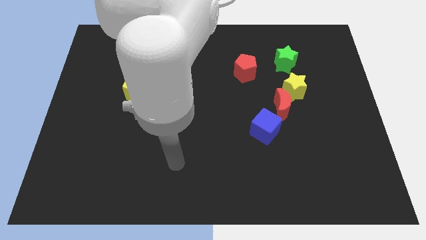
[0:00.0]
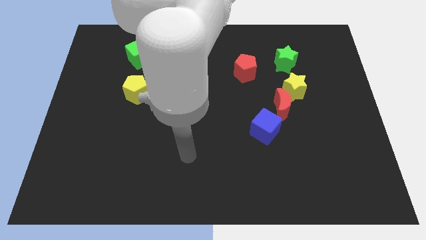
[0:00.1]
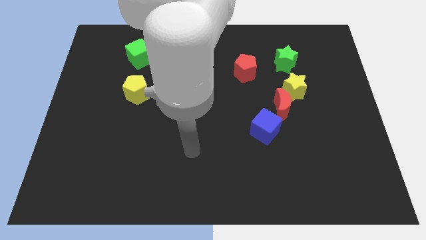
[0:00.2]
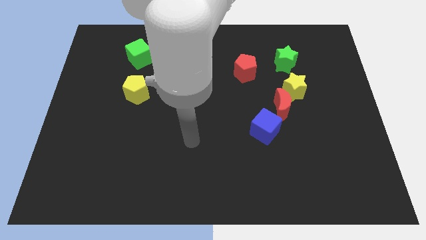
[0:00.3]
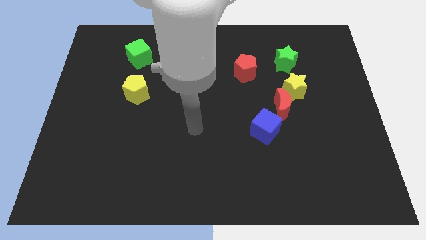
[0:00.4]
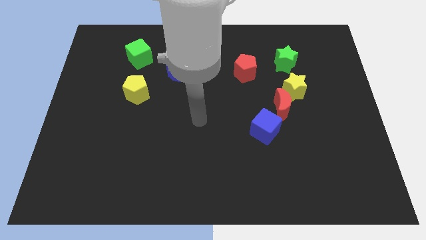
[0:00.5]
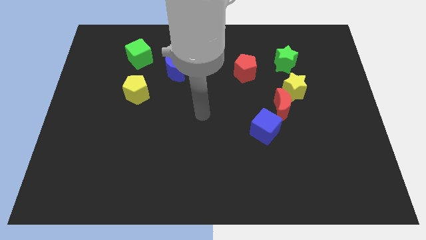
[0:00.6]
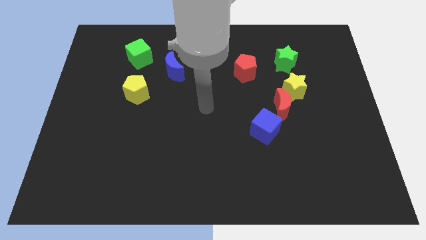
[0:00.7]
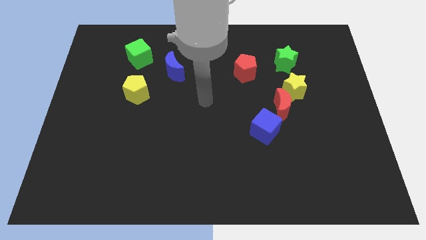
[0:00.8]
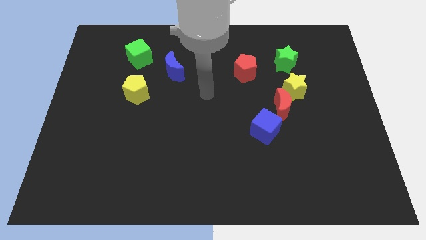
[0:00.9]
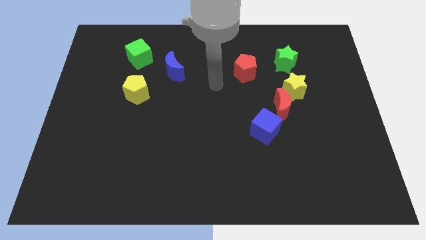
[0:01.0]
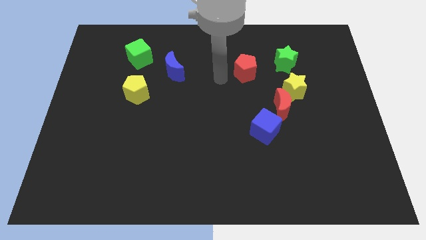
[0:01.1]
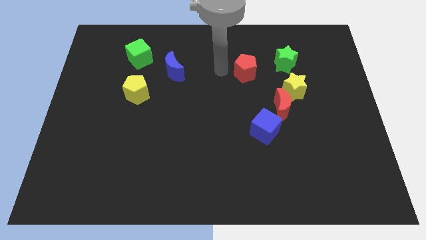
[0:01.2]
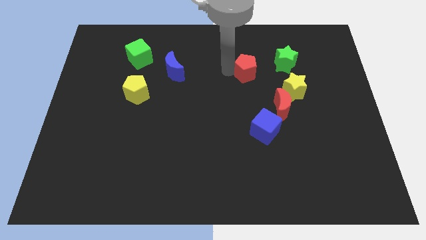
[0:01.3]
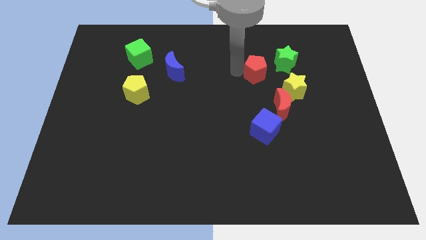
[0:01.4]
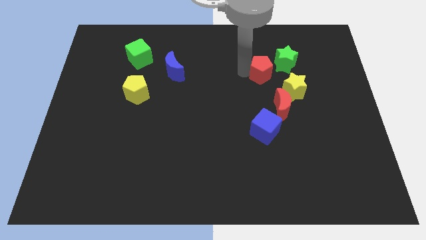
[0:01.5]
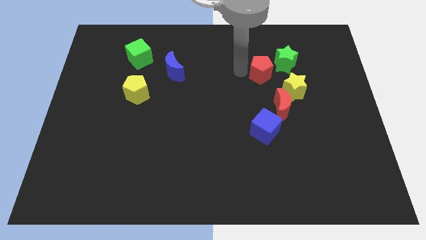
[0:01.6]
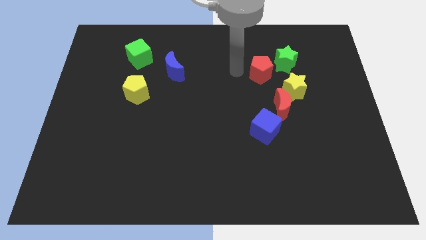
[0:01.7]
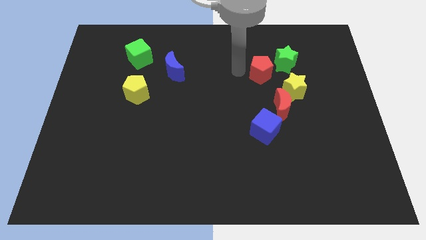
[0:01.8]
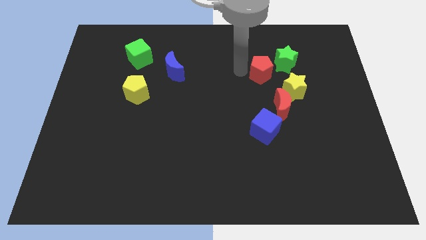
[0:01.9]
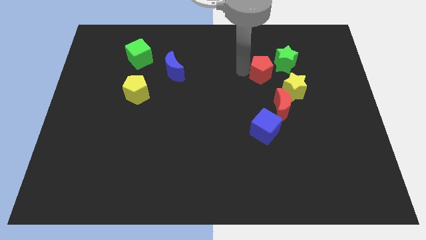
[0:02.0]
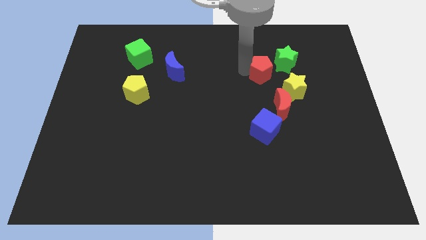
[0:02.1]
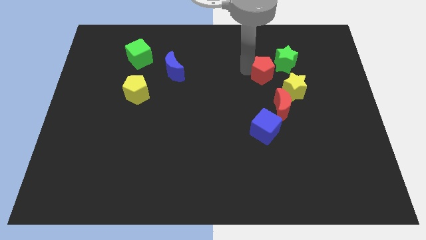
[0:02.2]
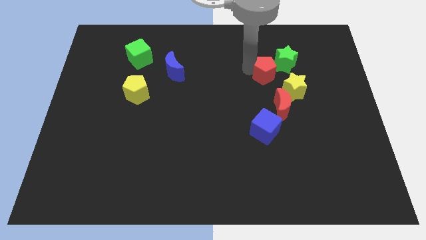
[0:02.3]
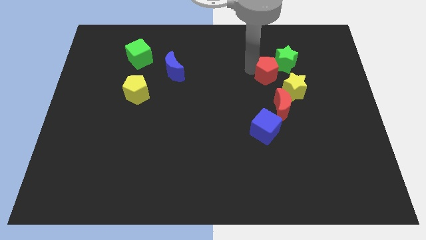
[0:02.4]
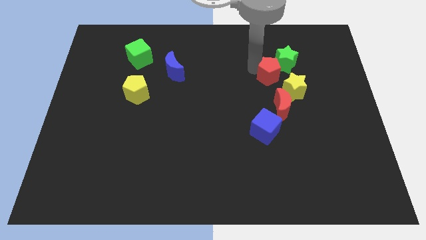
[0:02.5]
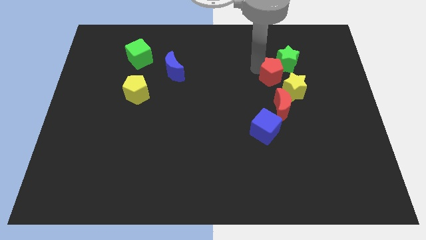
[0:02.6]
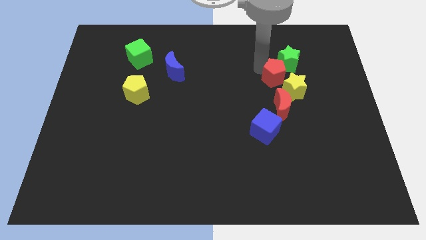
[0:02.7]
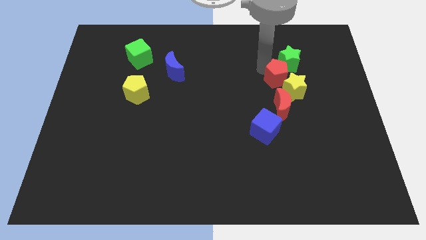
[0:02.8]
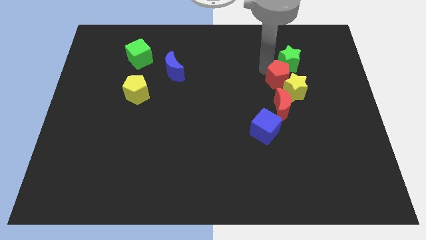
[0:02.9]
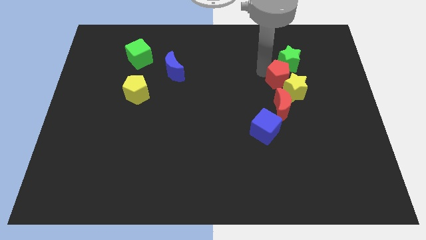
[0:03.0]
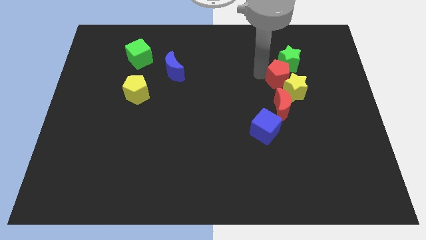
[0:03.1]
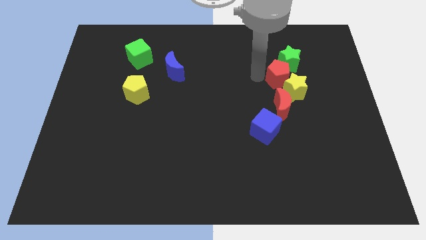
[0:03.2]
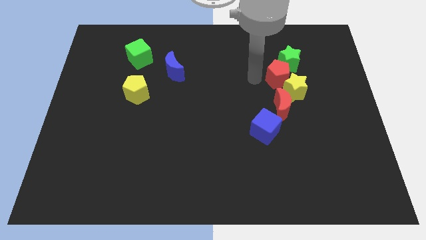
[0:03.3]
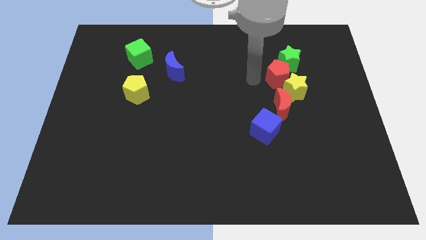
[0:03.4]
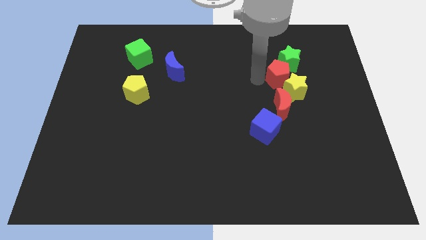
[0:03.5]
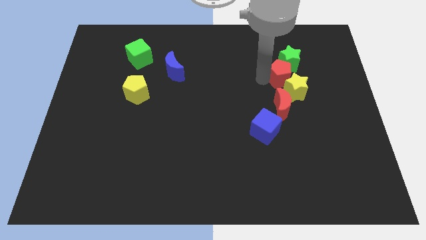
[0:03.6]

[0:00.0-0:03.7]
push the red pentagon down and then to the right a little bit

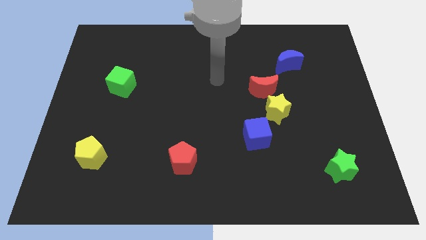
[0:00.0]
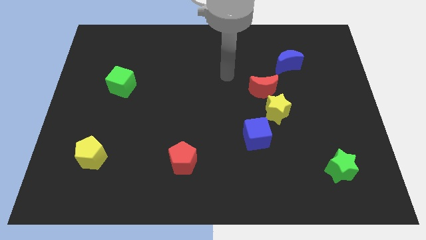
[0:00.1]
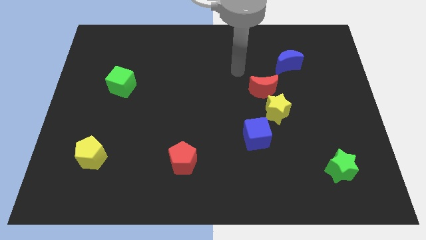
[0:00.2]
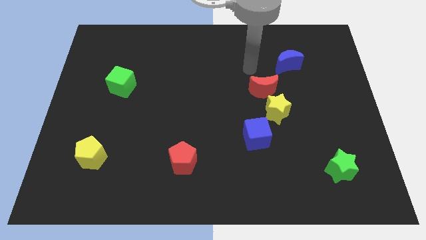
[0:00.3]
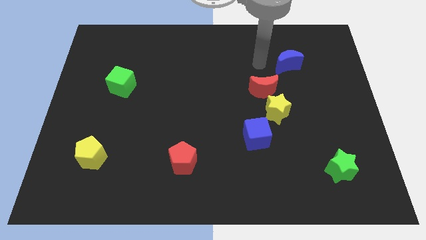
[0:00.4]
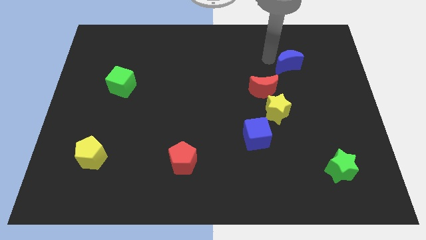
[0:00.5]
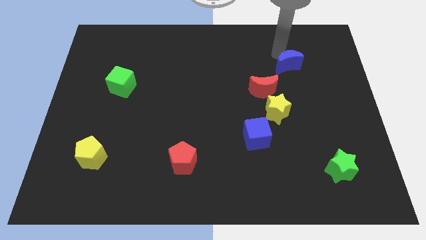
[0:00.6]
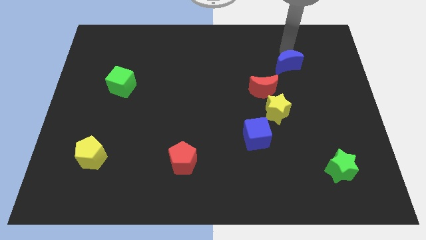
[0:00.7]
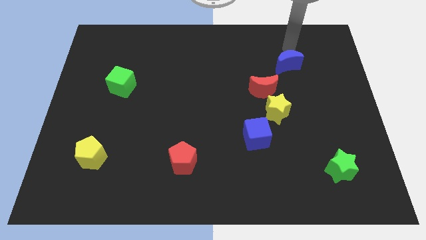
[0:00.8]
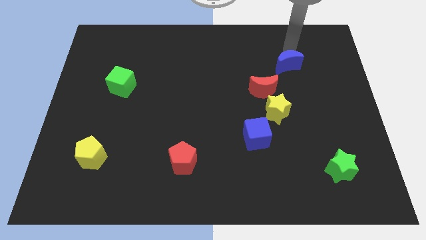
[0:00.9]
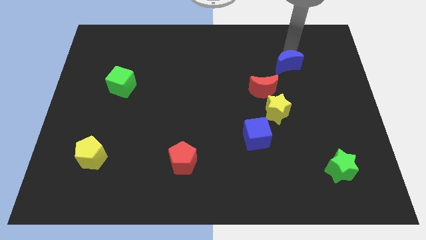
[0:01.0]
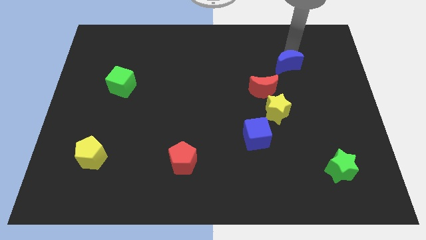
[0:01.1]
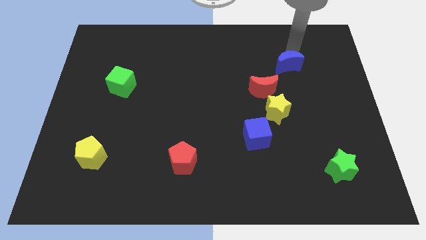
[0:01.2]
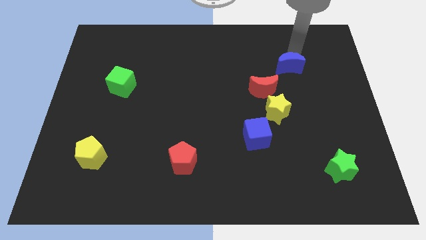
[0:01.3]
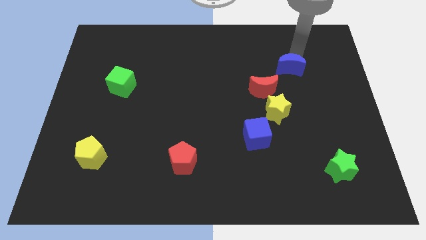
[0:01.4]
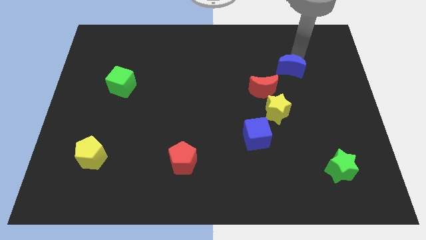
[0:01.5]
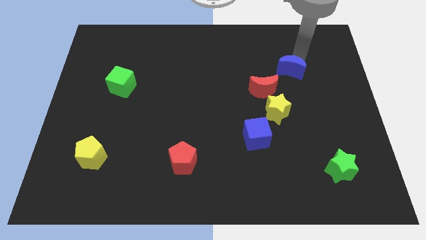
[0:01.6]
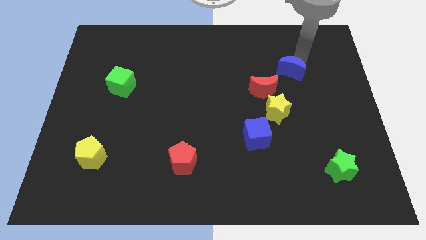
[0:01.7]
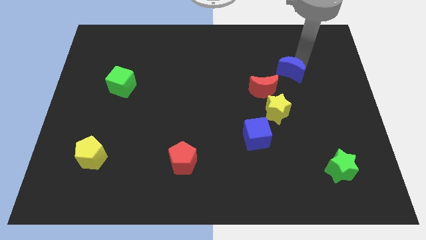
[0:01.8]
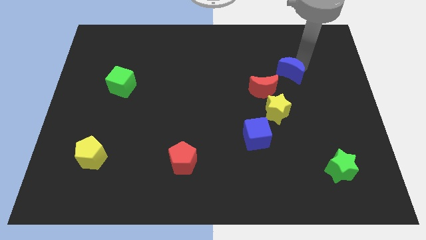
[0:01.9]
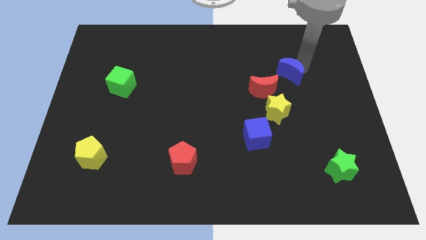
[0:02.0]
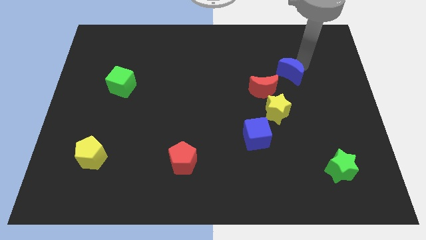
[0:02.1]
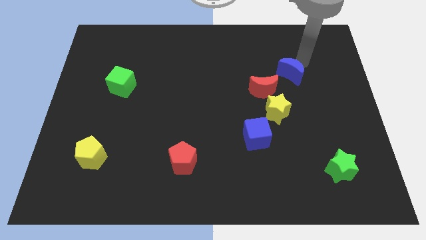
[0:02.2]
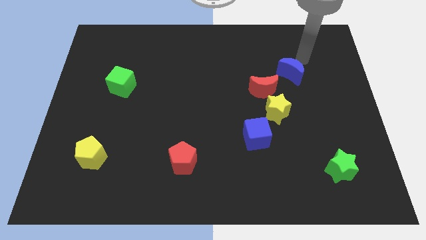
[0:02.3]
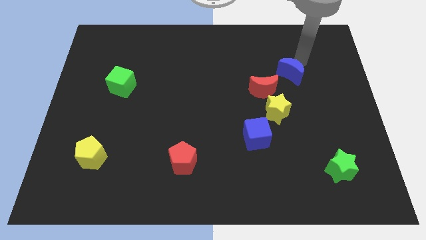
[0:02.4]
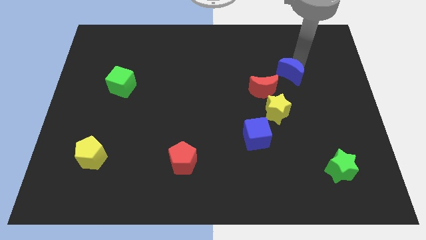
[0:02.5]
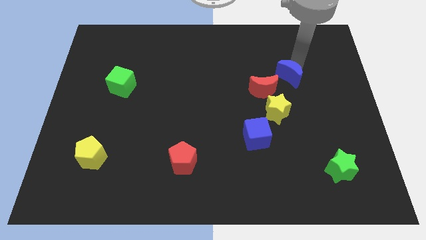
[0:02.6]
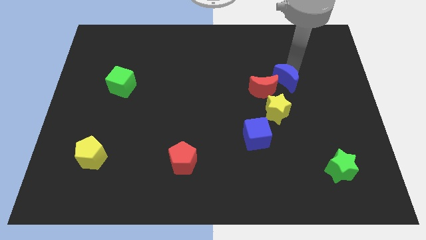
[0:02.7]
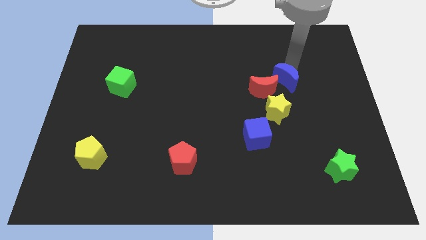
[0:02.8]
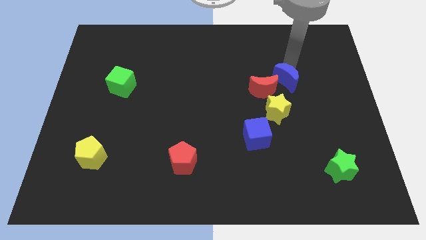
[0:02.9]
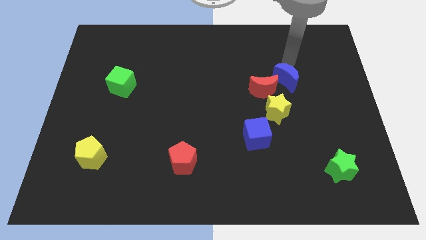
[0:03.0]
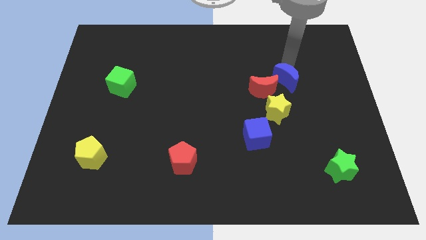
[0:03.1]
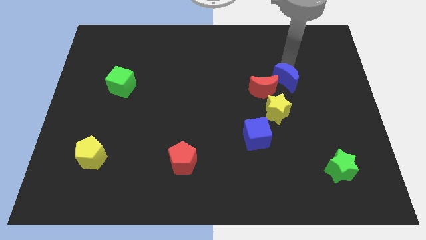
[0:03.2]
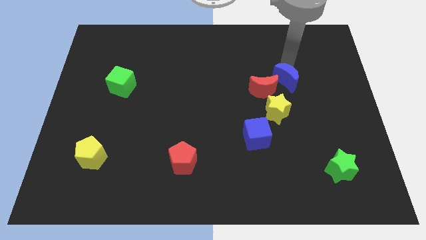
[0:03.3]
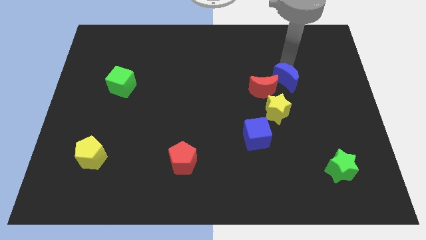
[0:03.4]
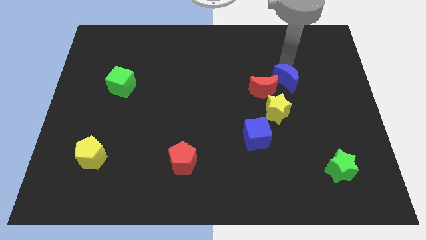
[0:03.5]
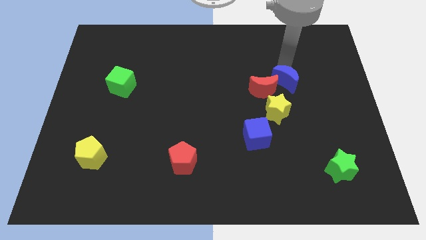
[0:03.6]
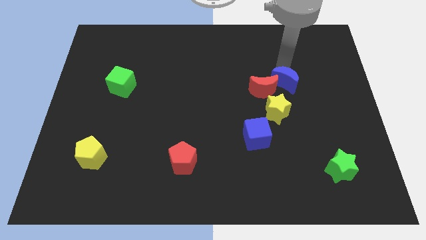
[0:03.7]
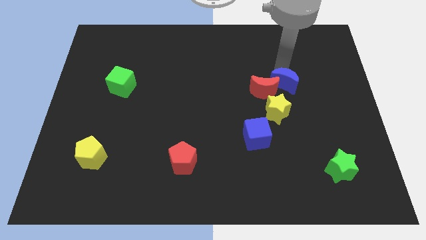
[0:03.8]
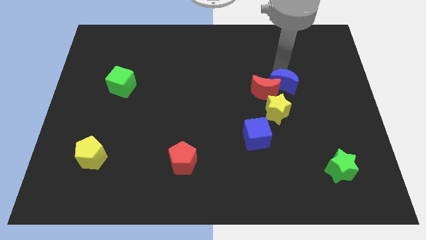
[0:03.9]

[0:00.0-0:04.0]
push the blue moon downwards a little

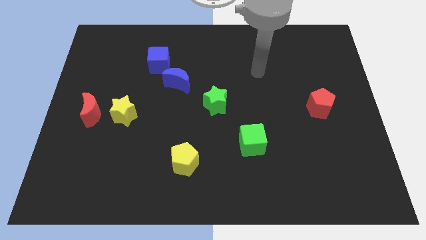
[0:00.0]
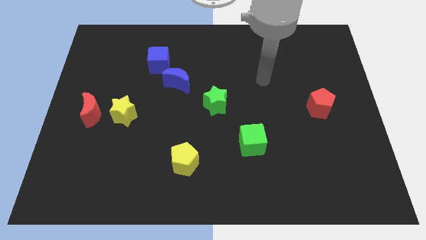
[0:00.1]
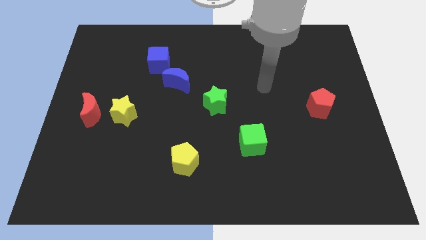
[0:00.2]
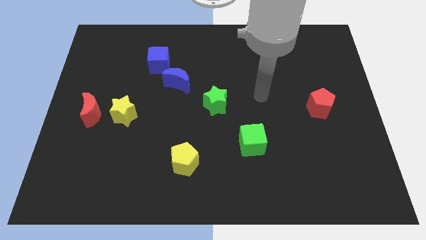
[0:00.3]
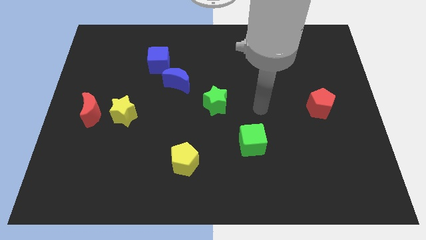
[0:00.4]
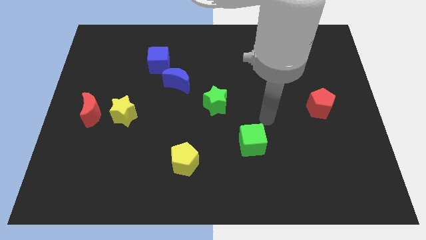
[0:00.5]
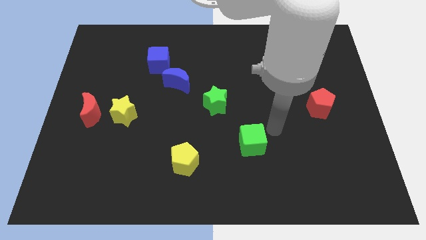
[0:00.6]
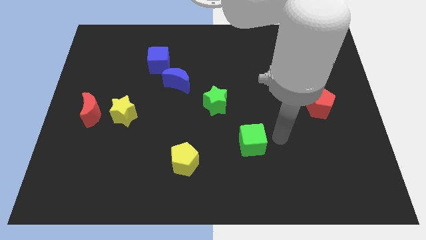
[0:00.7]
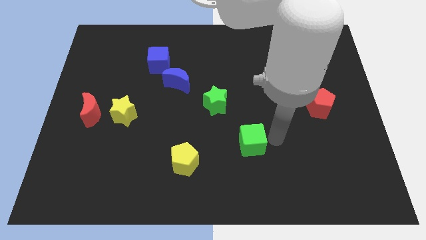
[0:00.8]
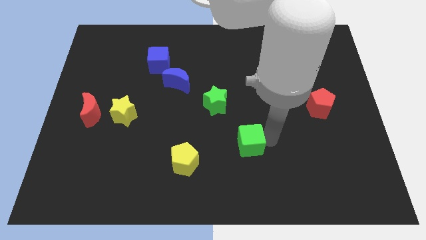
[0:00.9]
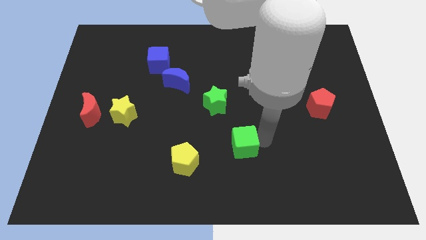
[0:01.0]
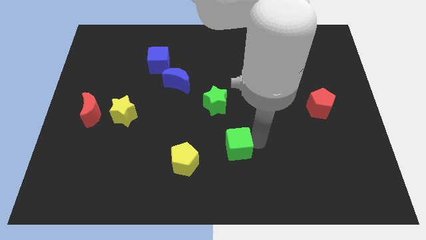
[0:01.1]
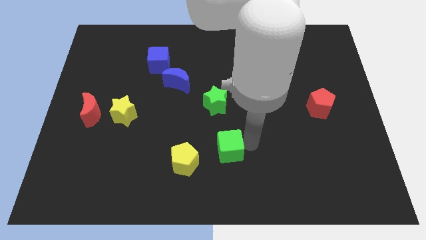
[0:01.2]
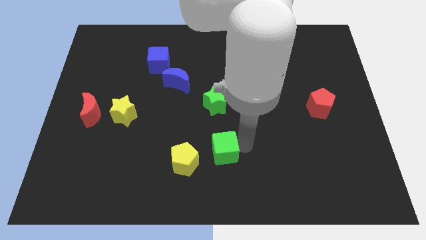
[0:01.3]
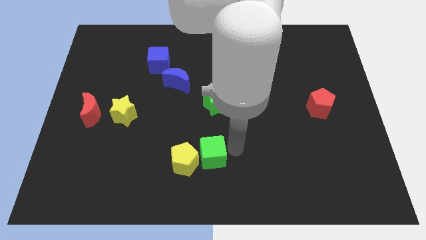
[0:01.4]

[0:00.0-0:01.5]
move the green cube slightly to the left
